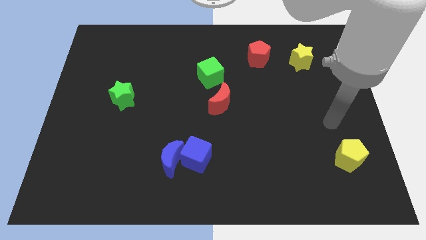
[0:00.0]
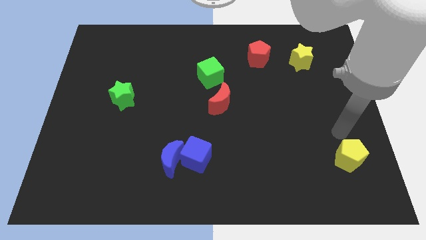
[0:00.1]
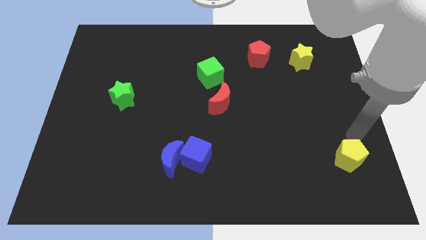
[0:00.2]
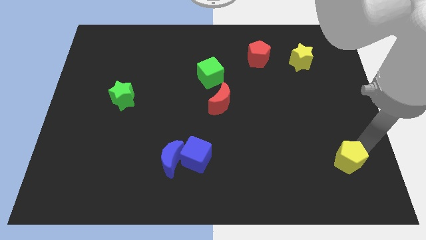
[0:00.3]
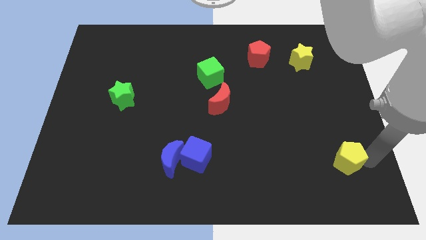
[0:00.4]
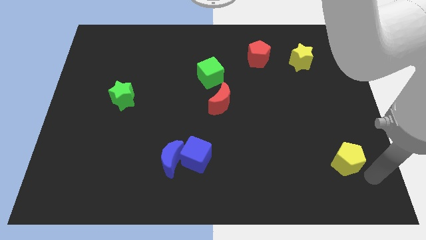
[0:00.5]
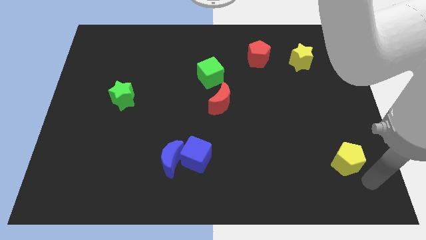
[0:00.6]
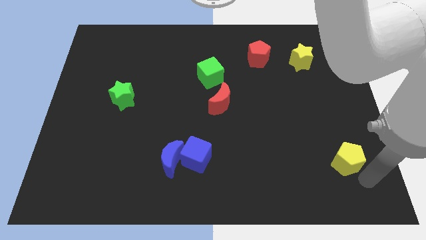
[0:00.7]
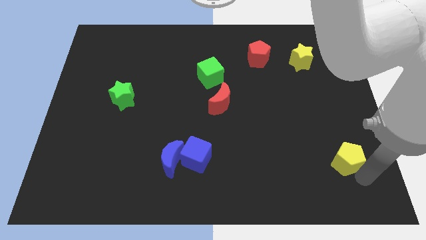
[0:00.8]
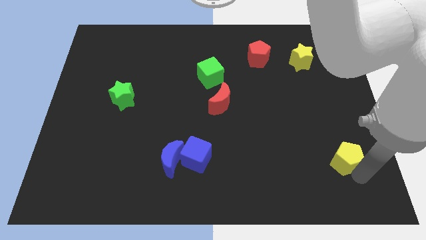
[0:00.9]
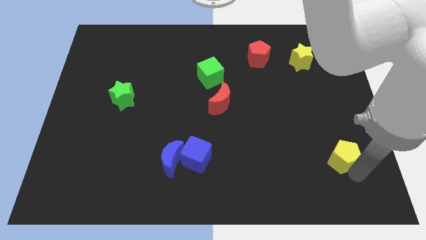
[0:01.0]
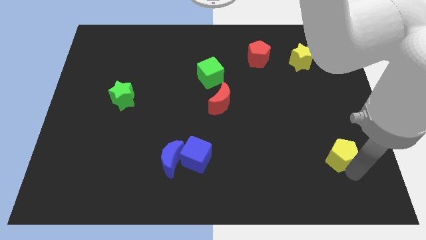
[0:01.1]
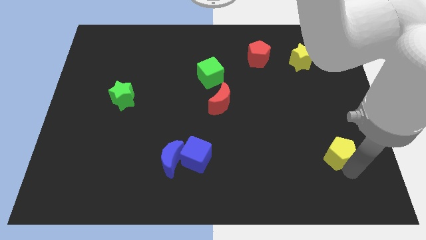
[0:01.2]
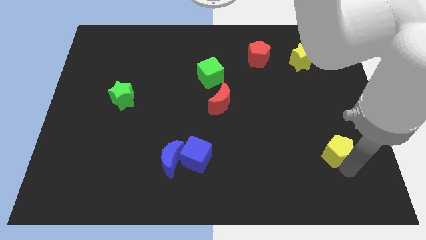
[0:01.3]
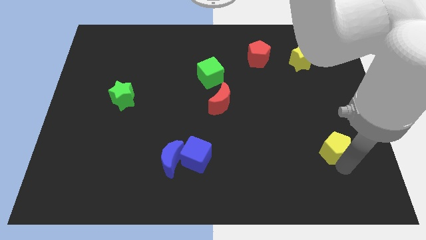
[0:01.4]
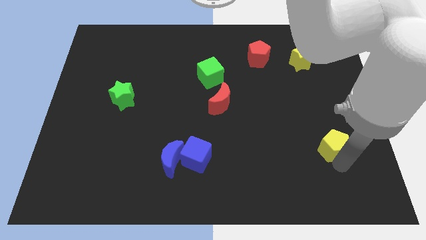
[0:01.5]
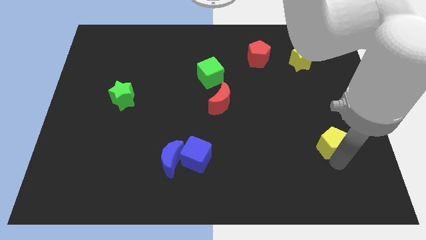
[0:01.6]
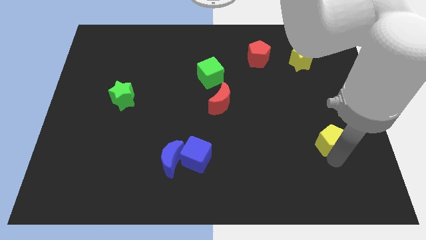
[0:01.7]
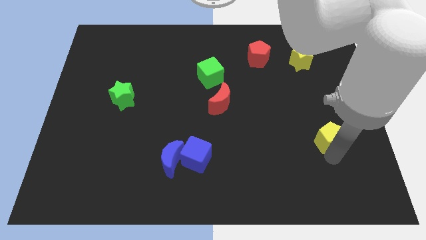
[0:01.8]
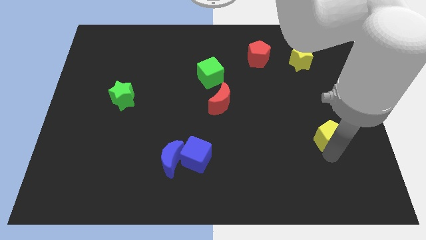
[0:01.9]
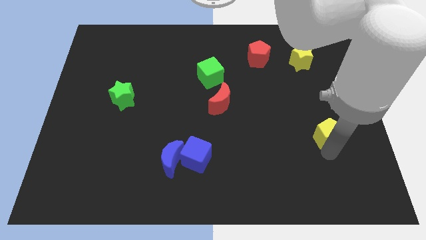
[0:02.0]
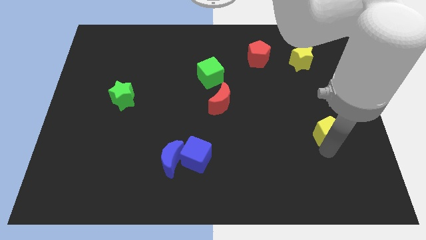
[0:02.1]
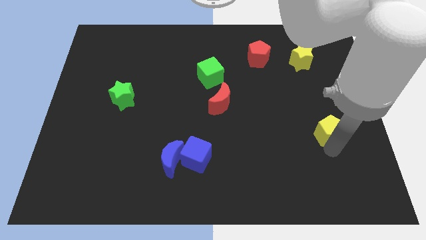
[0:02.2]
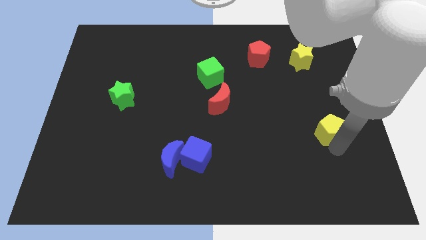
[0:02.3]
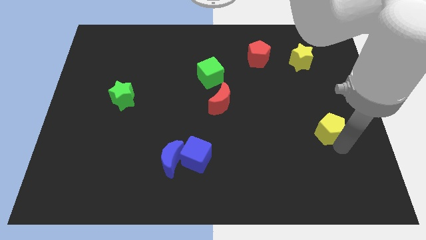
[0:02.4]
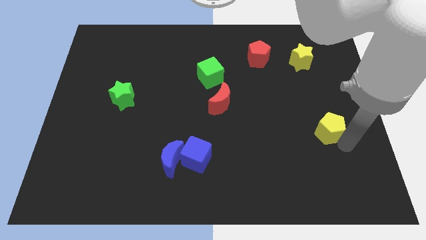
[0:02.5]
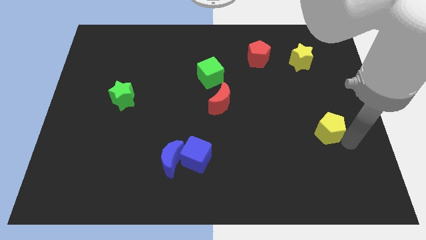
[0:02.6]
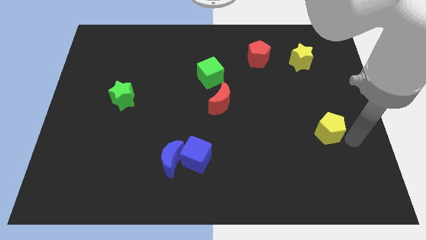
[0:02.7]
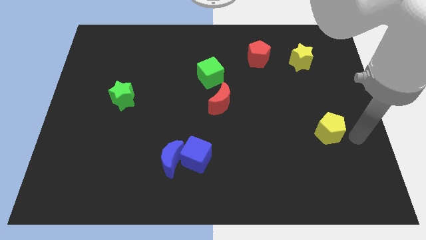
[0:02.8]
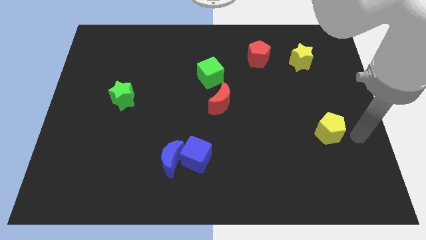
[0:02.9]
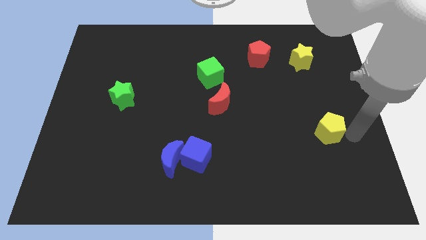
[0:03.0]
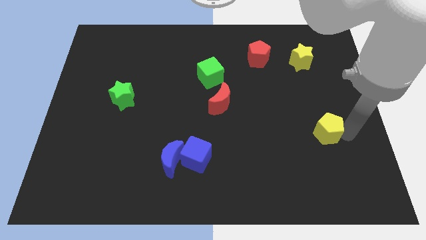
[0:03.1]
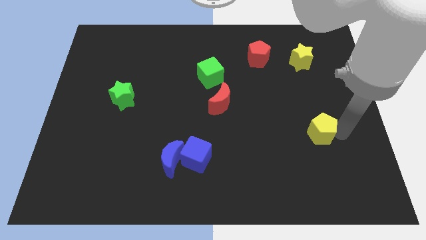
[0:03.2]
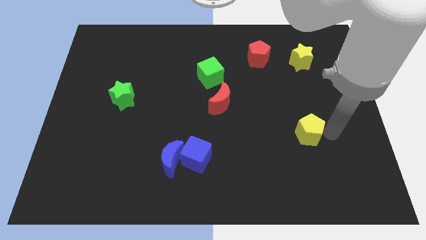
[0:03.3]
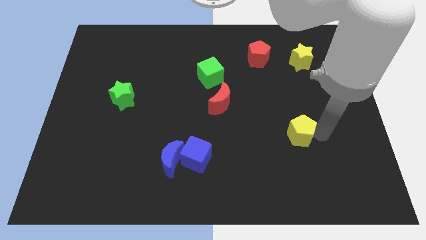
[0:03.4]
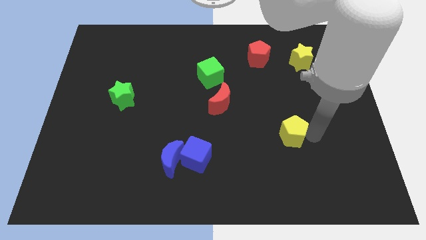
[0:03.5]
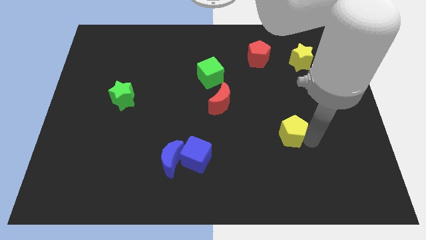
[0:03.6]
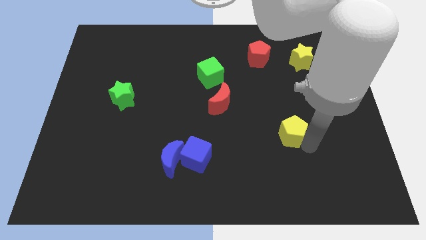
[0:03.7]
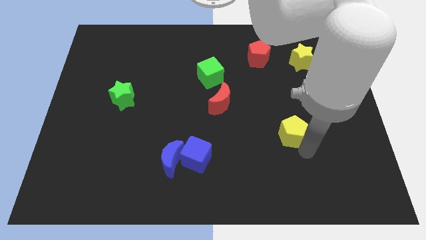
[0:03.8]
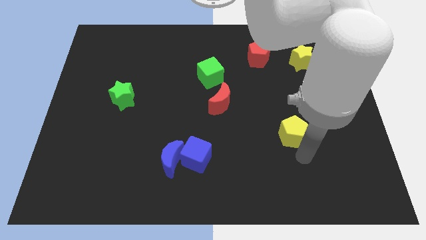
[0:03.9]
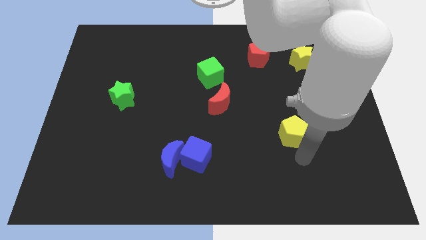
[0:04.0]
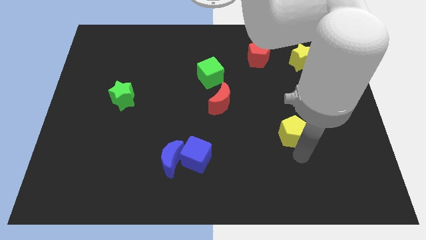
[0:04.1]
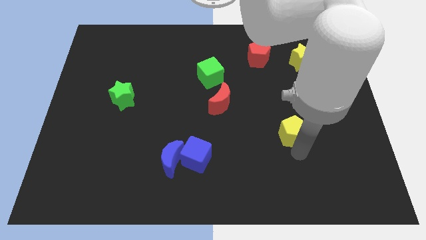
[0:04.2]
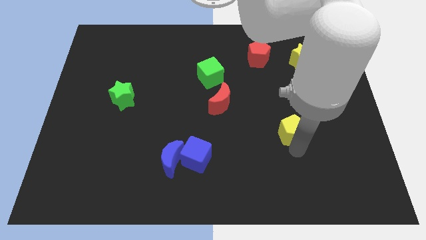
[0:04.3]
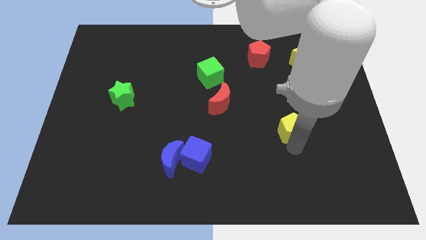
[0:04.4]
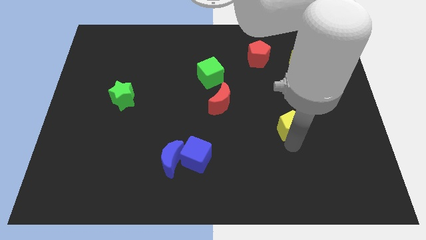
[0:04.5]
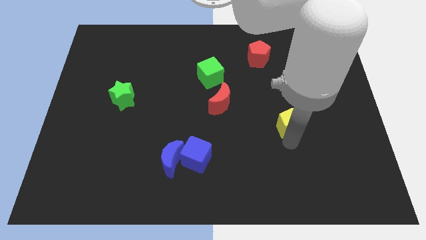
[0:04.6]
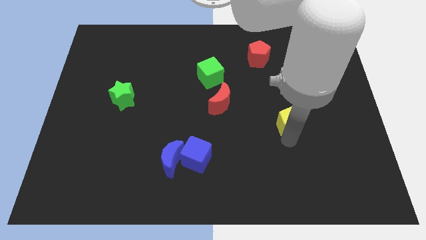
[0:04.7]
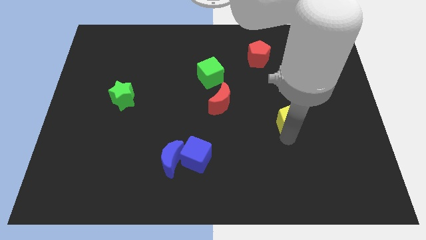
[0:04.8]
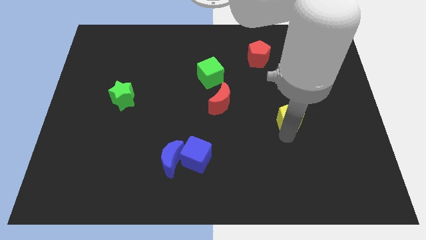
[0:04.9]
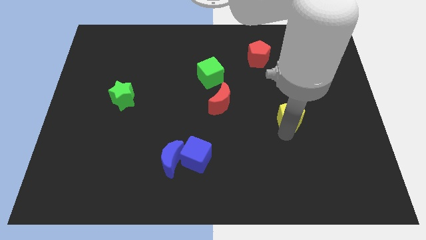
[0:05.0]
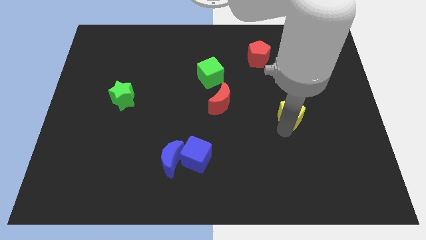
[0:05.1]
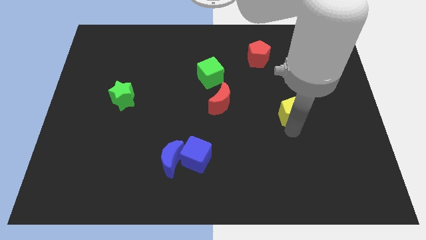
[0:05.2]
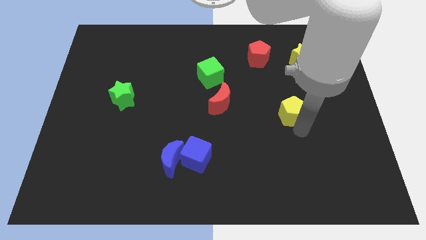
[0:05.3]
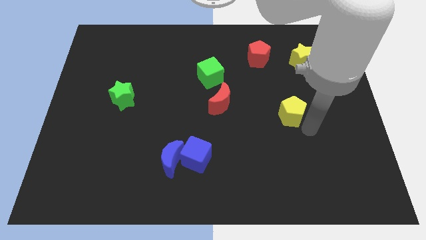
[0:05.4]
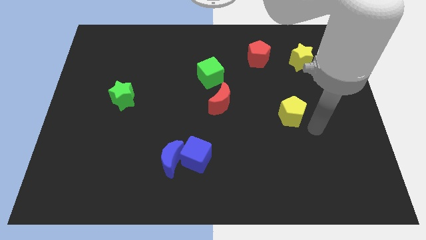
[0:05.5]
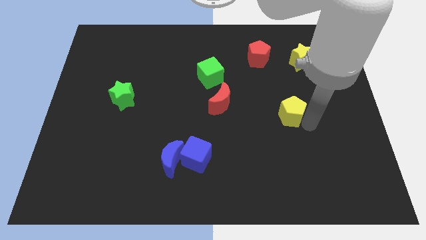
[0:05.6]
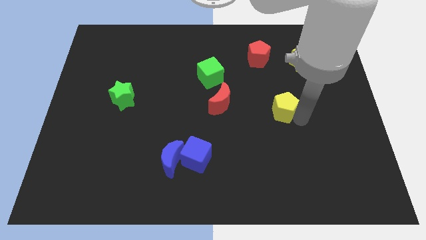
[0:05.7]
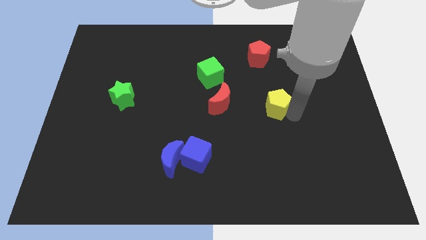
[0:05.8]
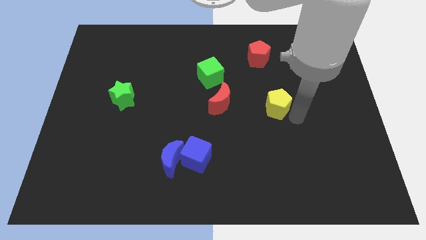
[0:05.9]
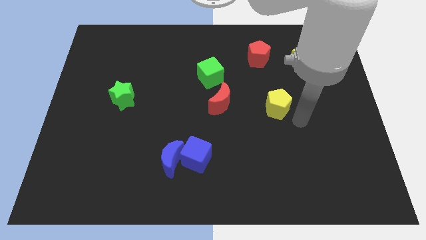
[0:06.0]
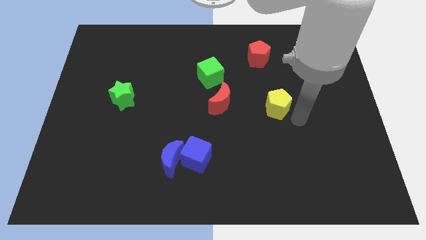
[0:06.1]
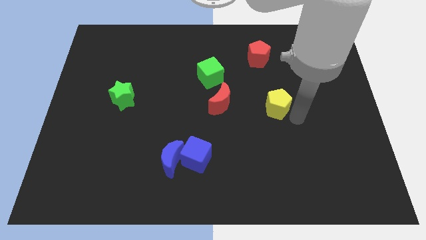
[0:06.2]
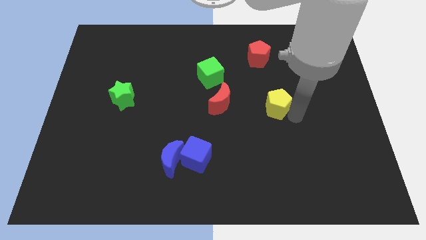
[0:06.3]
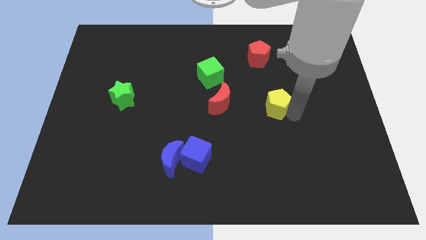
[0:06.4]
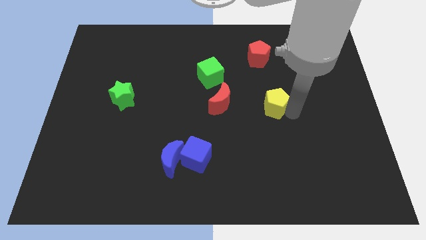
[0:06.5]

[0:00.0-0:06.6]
push the yellow pentagon up and left

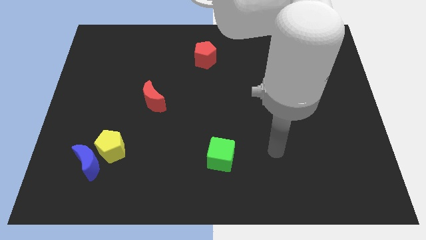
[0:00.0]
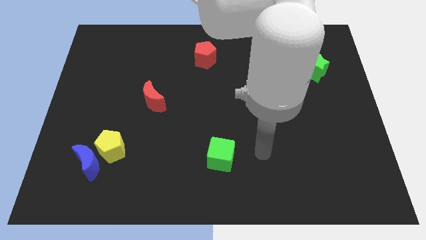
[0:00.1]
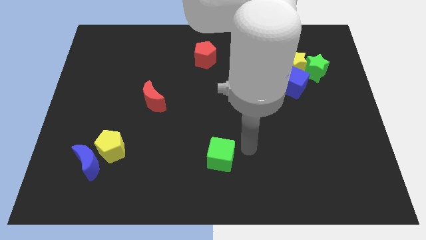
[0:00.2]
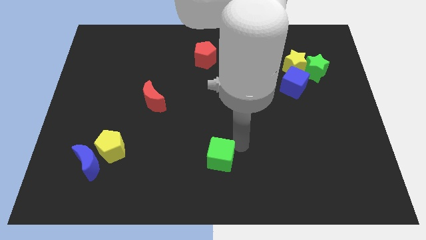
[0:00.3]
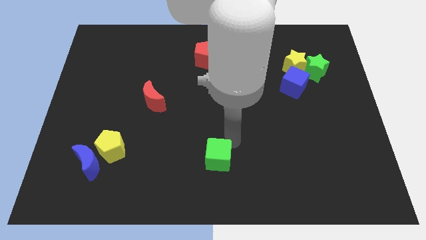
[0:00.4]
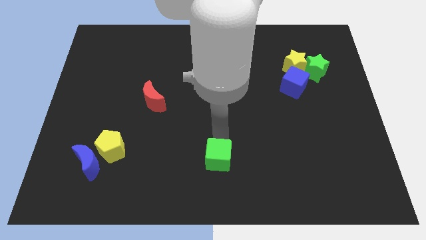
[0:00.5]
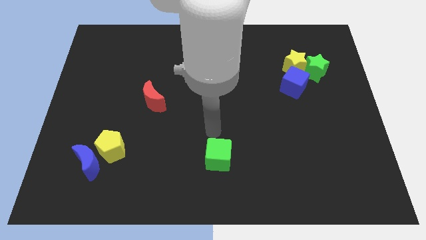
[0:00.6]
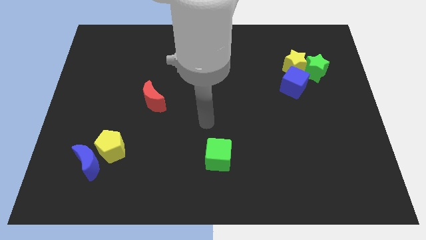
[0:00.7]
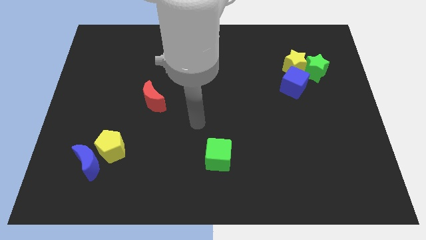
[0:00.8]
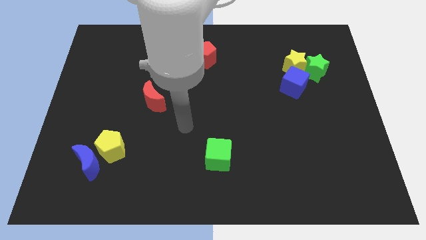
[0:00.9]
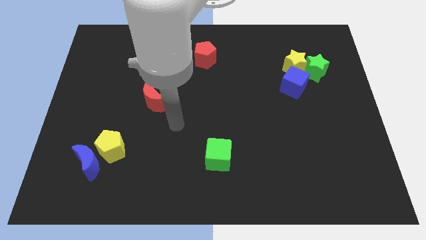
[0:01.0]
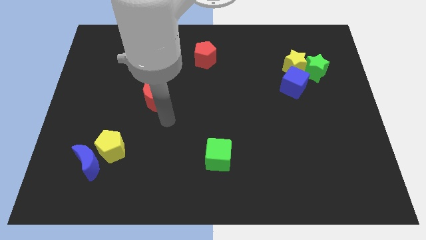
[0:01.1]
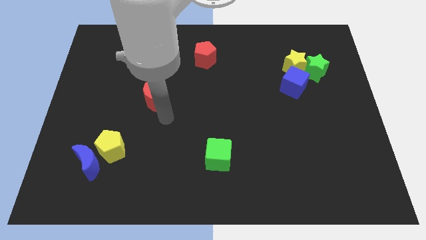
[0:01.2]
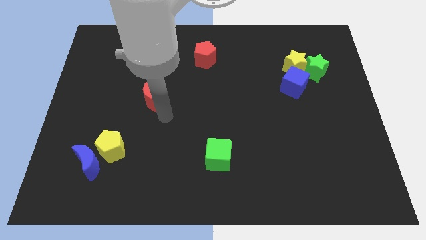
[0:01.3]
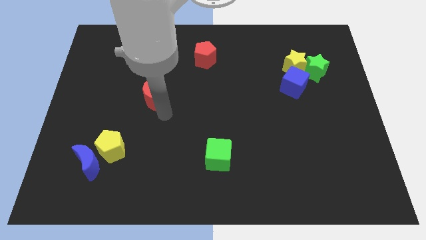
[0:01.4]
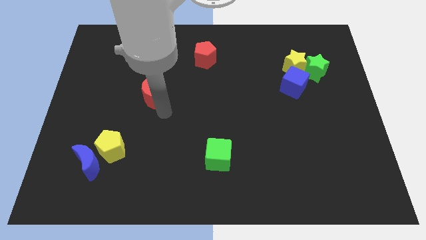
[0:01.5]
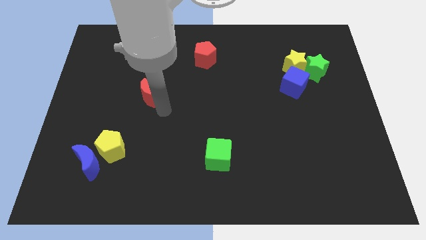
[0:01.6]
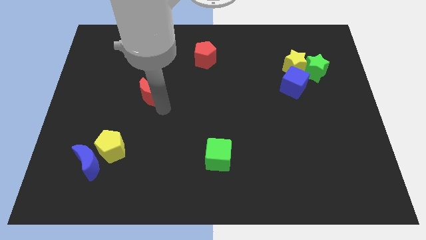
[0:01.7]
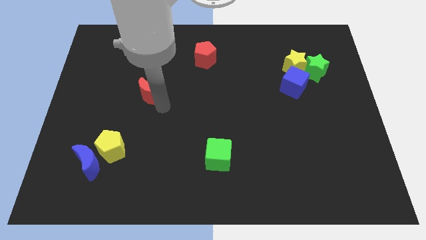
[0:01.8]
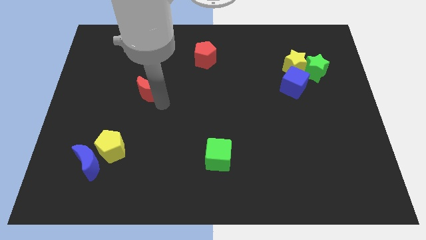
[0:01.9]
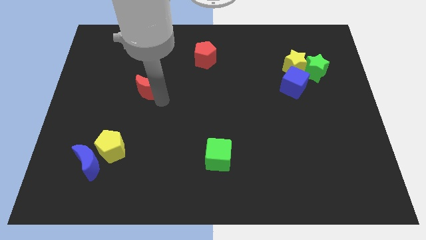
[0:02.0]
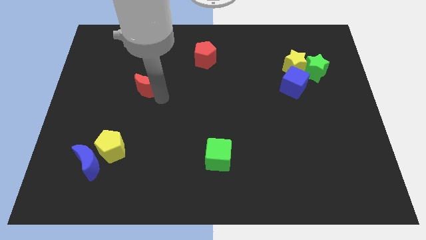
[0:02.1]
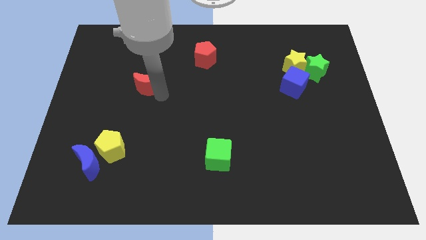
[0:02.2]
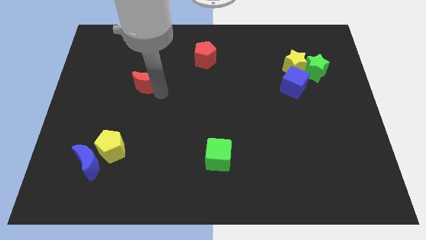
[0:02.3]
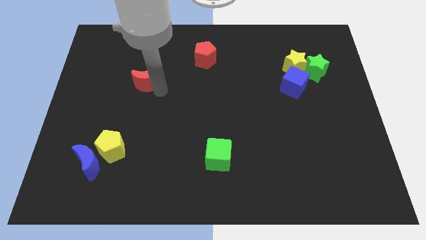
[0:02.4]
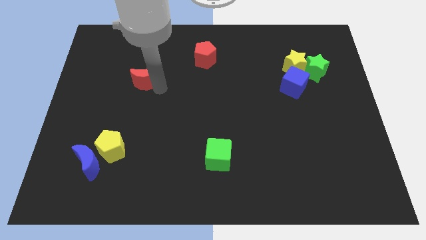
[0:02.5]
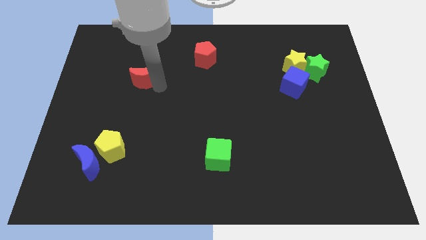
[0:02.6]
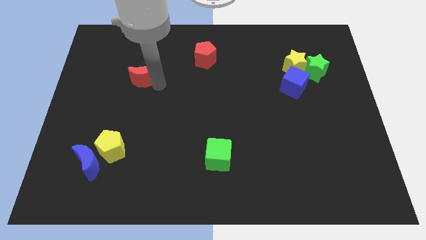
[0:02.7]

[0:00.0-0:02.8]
slide the red moon up and then left slightly
